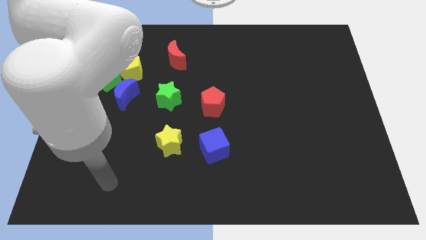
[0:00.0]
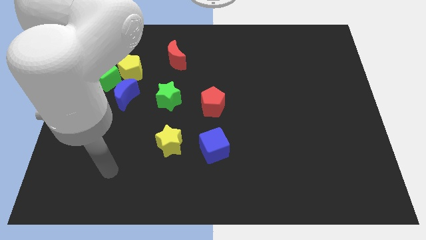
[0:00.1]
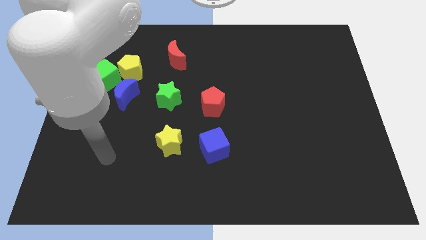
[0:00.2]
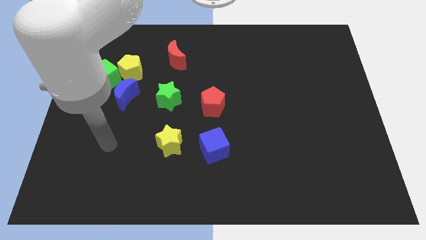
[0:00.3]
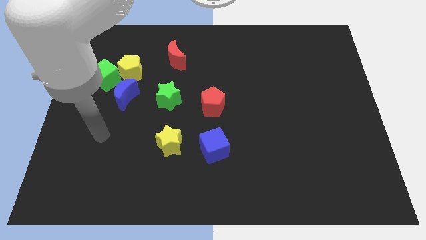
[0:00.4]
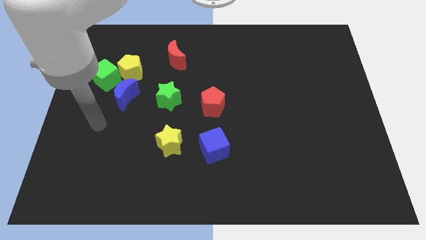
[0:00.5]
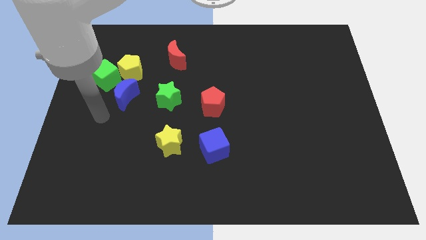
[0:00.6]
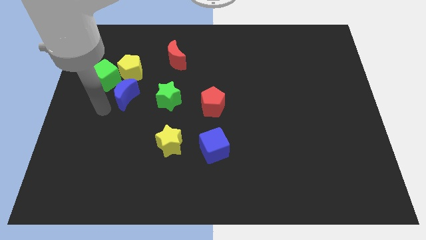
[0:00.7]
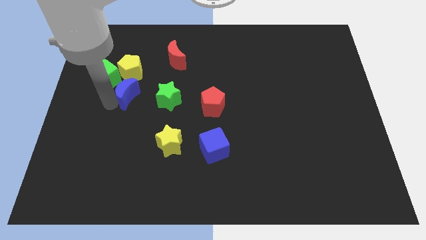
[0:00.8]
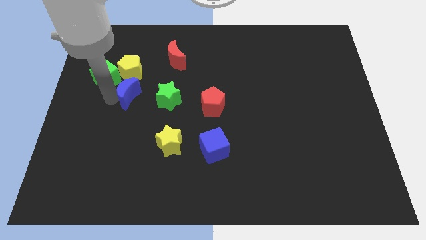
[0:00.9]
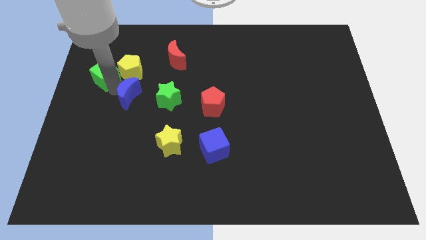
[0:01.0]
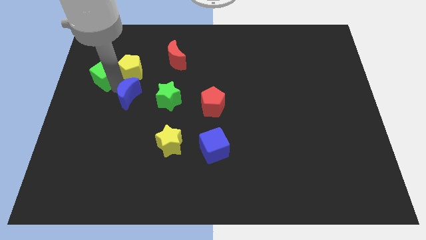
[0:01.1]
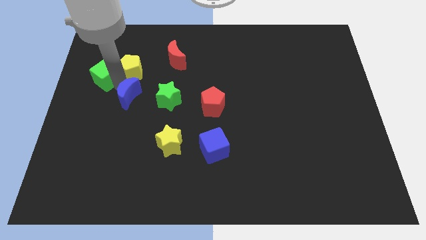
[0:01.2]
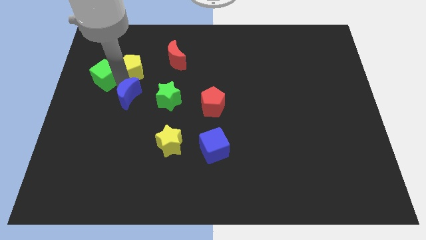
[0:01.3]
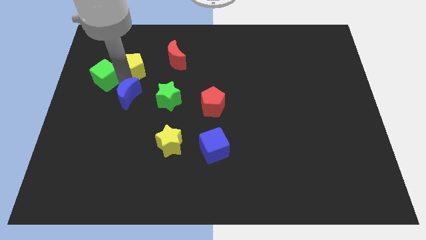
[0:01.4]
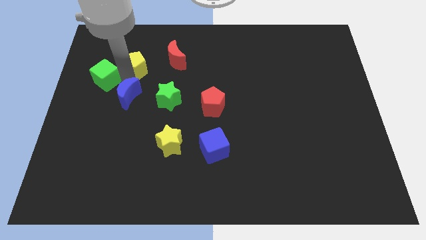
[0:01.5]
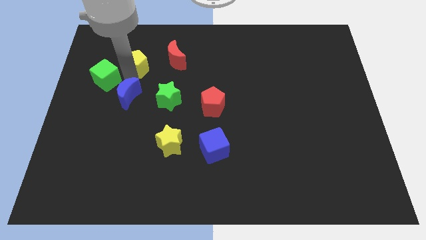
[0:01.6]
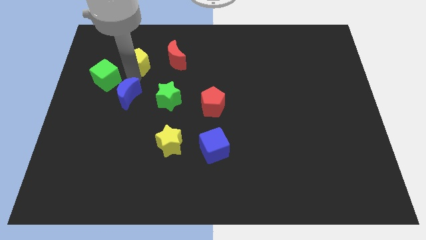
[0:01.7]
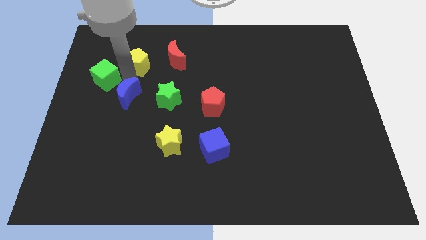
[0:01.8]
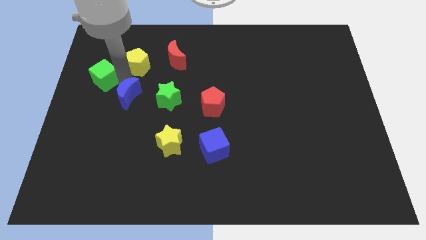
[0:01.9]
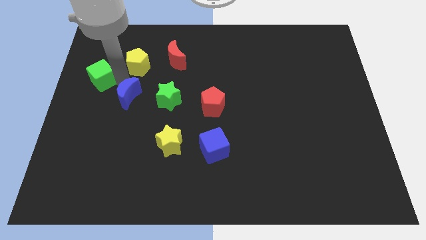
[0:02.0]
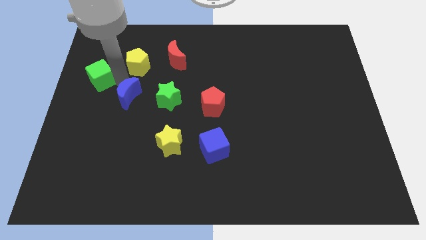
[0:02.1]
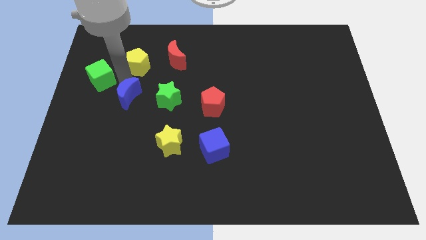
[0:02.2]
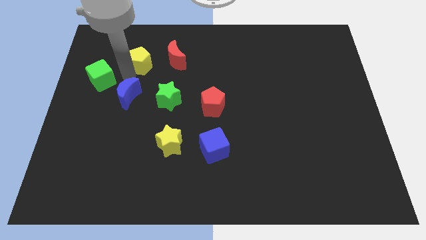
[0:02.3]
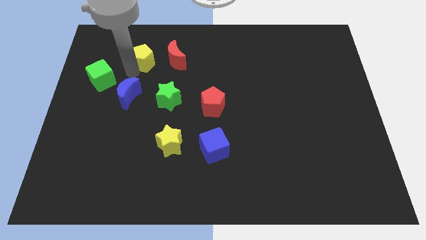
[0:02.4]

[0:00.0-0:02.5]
move the yellow pentagon away from the green cube and blue moon

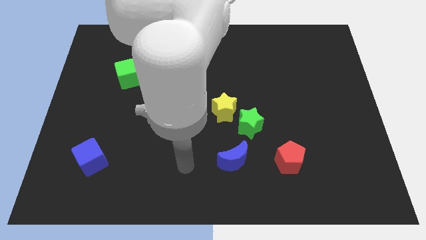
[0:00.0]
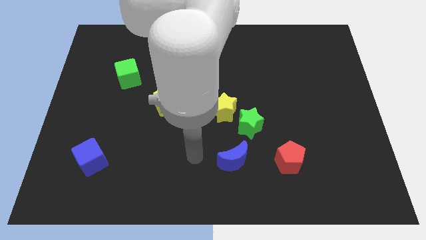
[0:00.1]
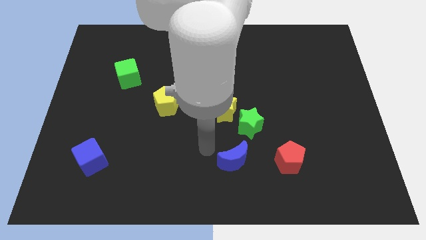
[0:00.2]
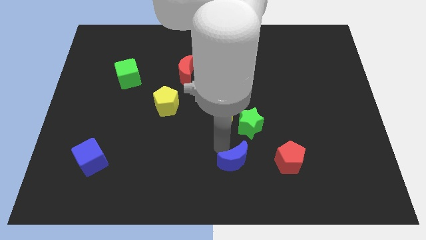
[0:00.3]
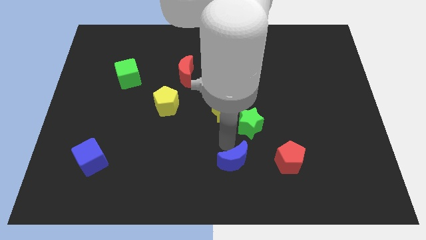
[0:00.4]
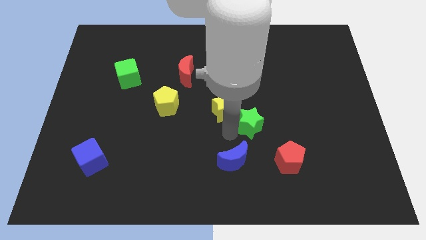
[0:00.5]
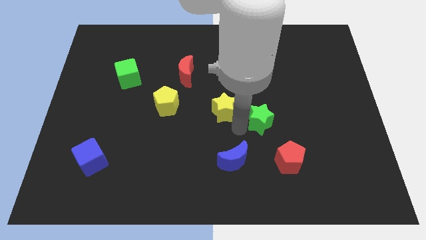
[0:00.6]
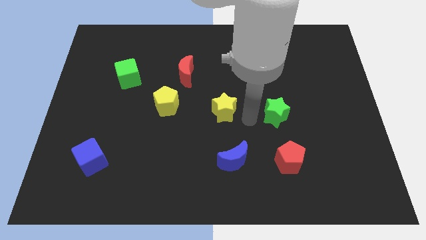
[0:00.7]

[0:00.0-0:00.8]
separate the yellow star from the green star

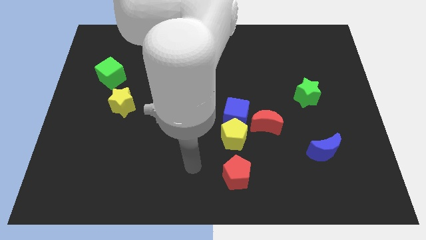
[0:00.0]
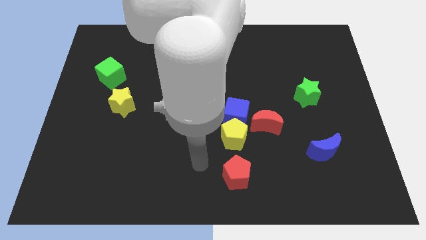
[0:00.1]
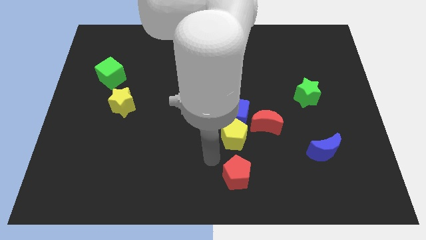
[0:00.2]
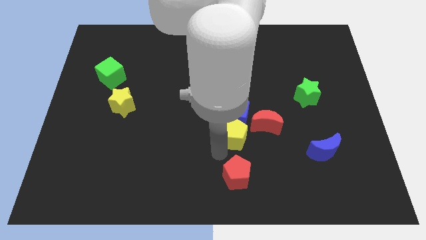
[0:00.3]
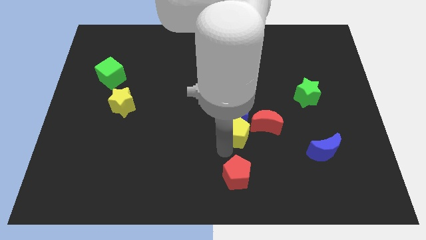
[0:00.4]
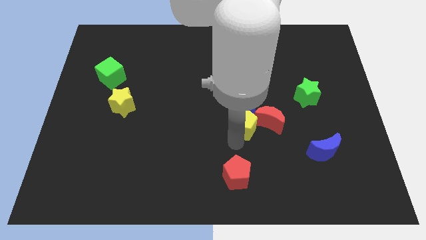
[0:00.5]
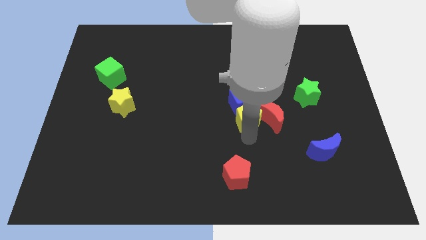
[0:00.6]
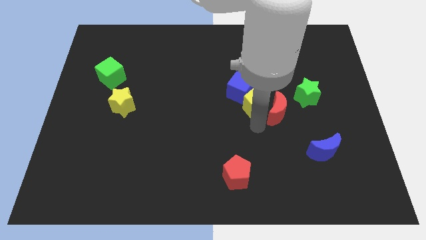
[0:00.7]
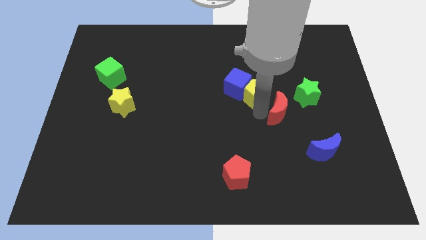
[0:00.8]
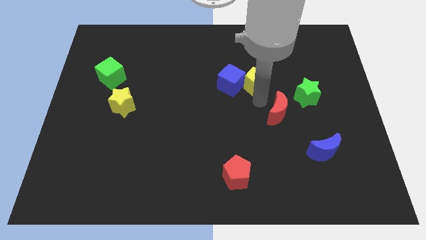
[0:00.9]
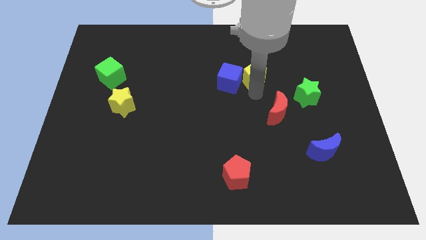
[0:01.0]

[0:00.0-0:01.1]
move the blue cube away from the yellow pentagon and red moon

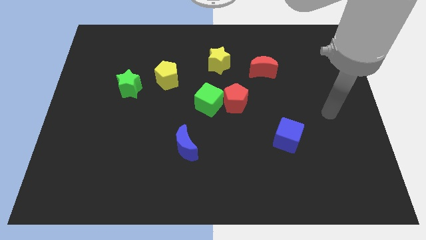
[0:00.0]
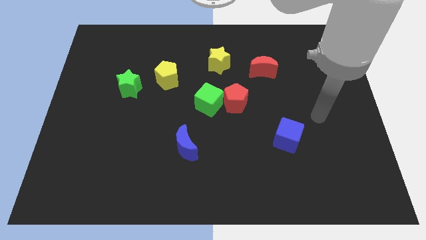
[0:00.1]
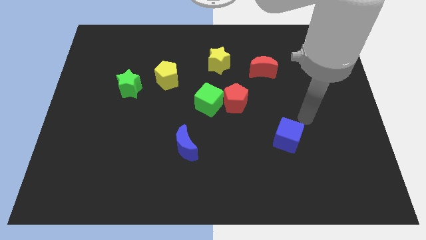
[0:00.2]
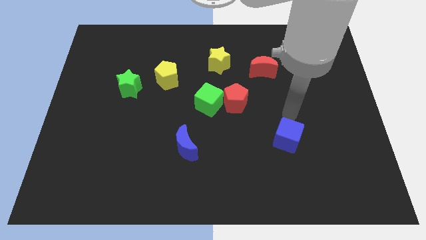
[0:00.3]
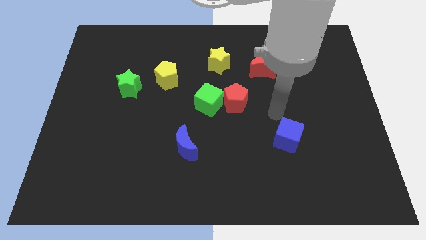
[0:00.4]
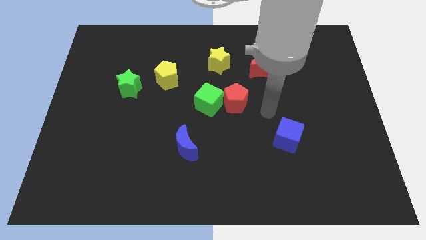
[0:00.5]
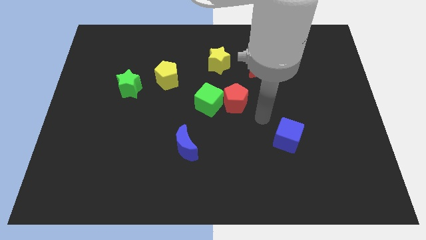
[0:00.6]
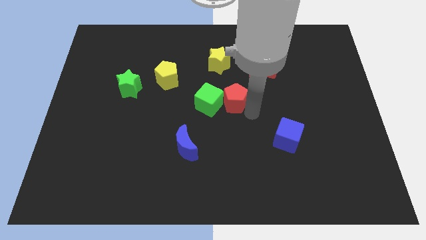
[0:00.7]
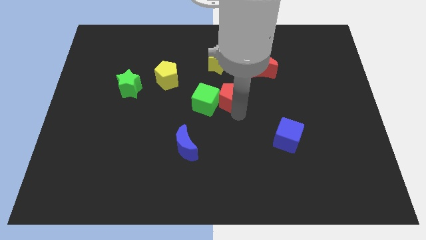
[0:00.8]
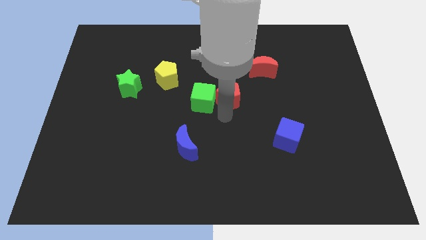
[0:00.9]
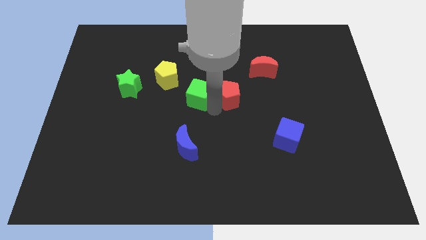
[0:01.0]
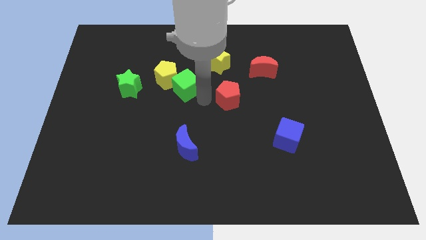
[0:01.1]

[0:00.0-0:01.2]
separate the red pentagon from the green cube

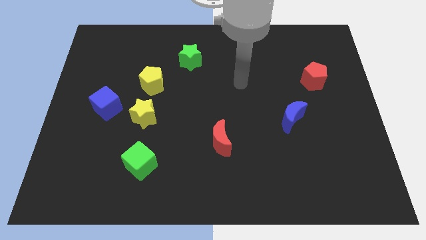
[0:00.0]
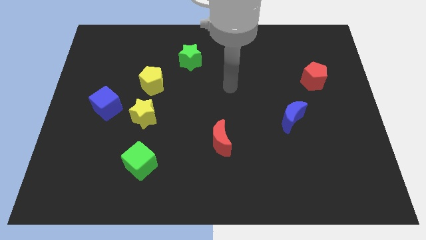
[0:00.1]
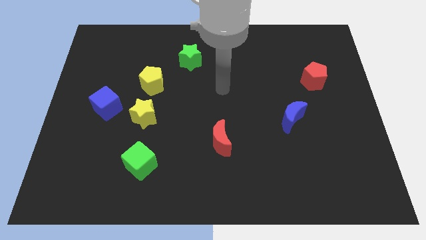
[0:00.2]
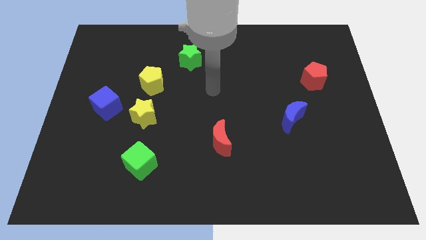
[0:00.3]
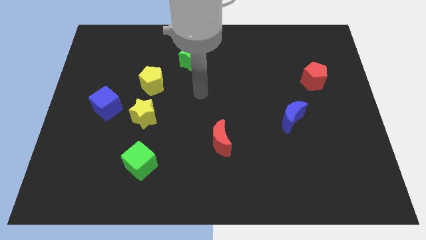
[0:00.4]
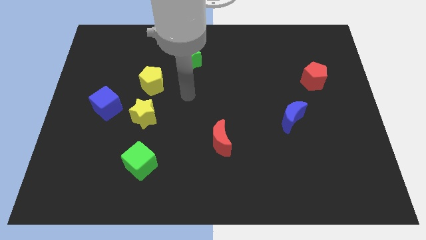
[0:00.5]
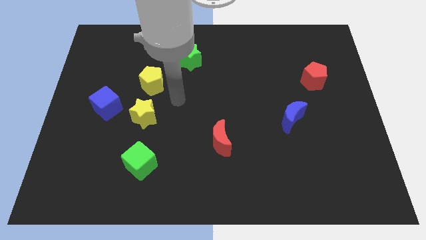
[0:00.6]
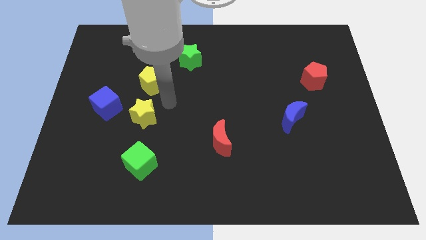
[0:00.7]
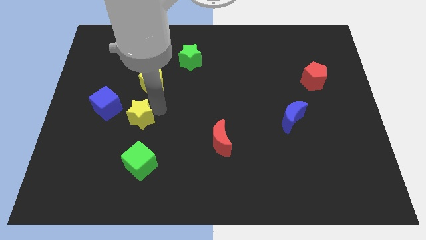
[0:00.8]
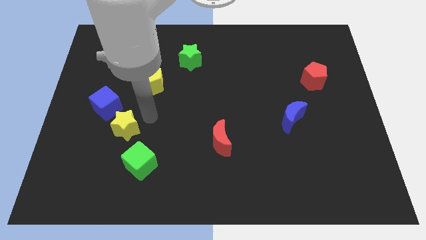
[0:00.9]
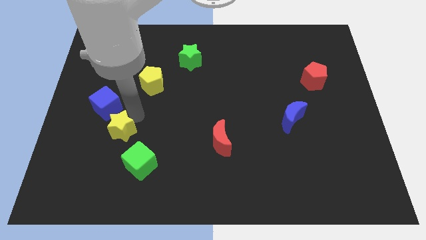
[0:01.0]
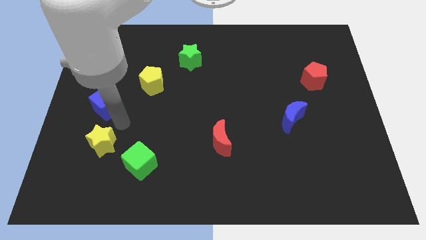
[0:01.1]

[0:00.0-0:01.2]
pull the blue cube apart from the yellow star

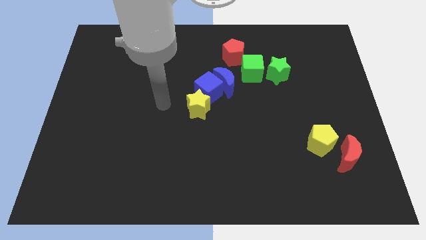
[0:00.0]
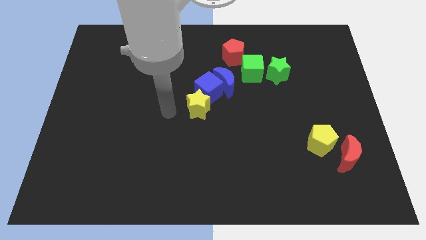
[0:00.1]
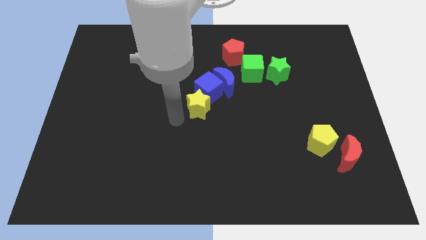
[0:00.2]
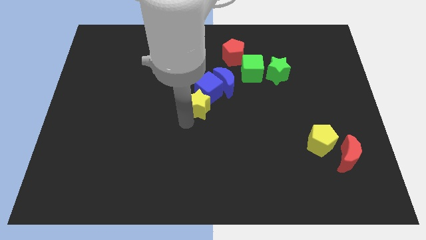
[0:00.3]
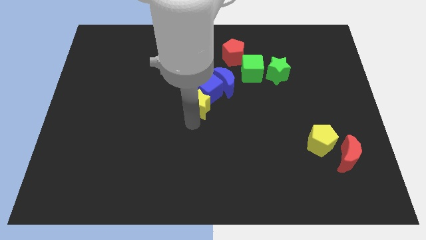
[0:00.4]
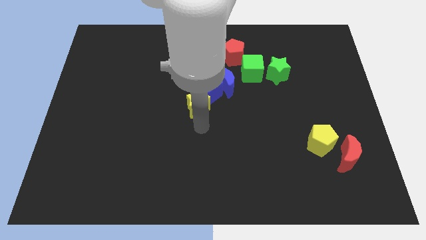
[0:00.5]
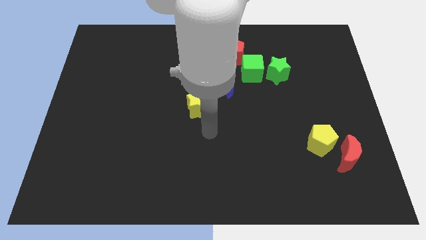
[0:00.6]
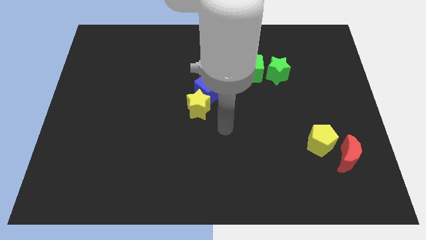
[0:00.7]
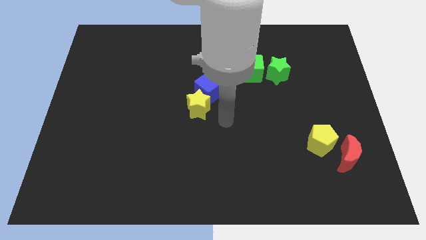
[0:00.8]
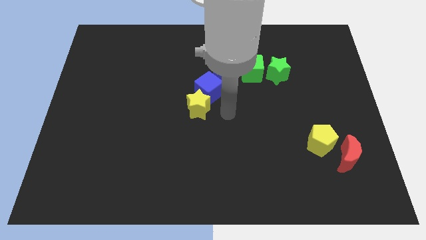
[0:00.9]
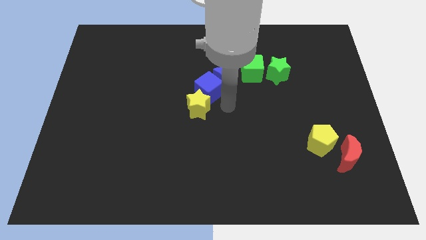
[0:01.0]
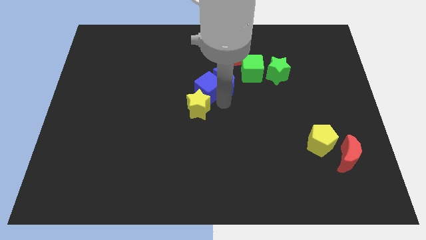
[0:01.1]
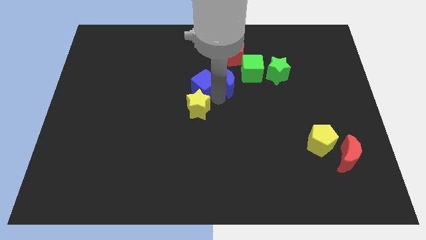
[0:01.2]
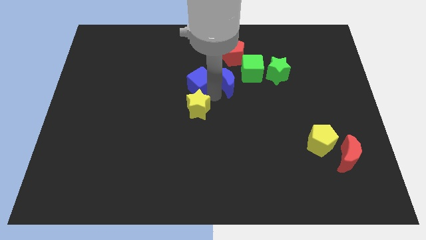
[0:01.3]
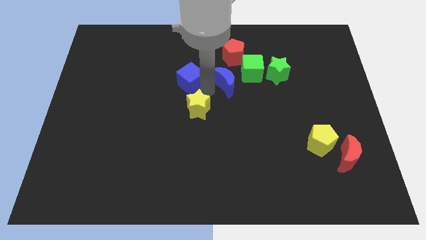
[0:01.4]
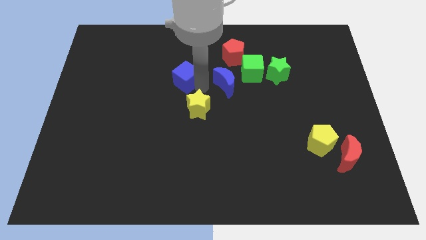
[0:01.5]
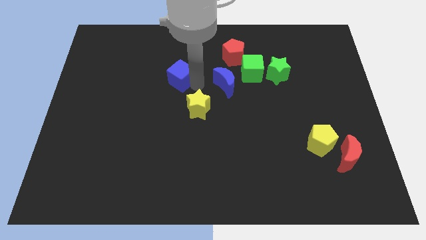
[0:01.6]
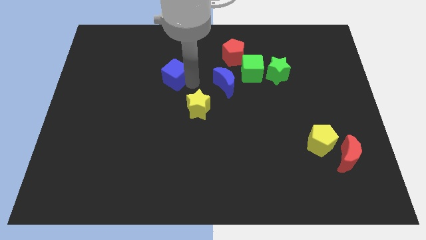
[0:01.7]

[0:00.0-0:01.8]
pull the blue cube apart from the blue moon and yellow star

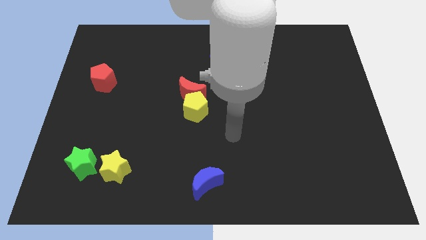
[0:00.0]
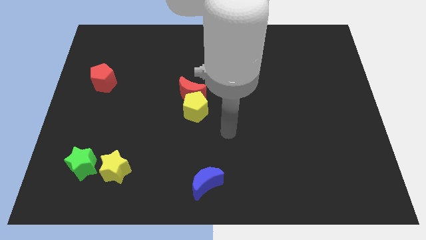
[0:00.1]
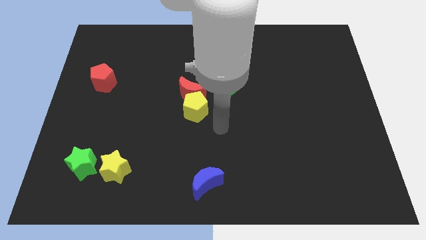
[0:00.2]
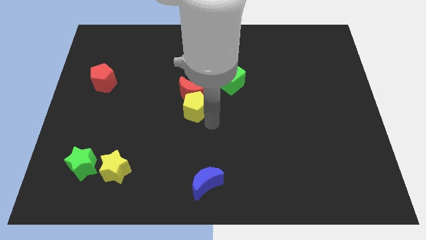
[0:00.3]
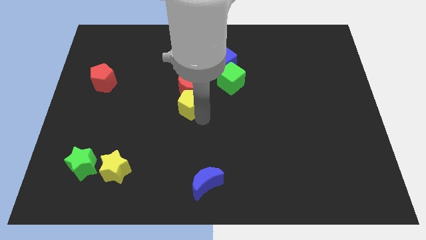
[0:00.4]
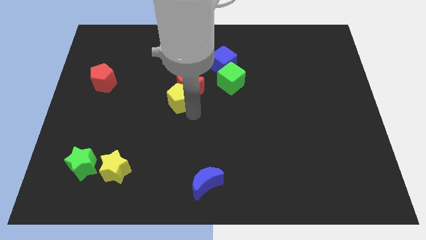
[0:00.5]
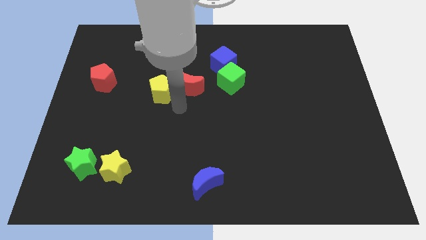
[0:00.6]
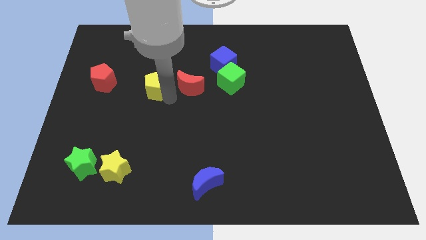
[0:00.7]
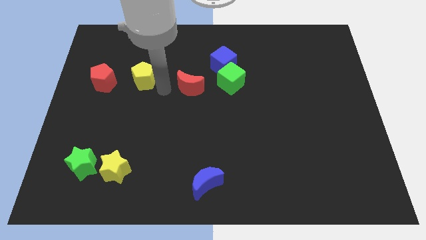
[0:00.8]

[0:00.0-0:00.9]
separate the red moon from the yellow pentagon
